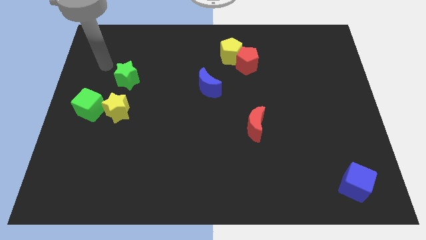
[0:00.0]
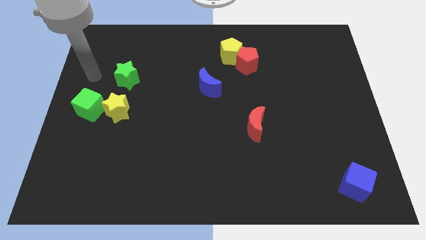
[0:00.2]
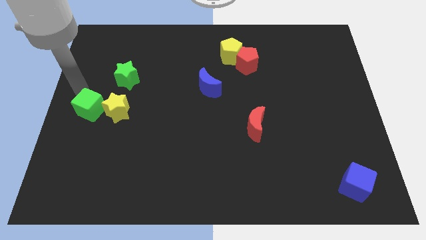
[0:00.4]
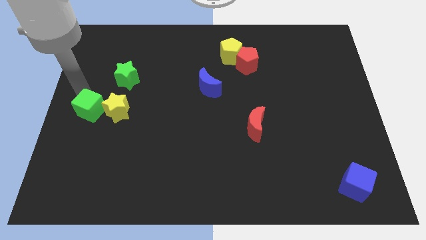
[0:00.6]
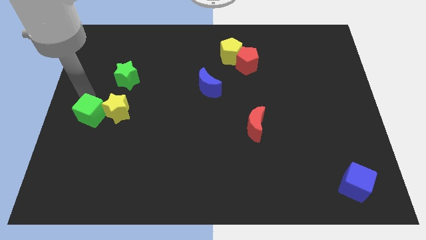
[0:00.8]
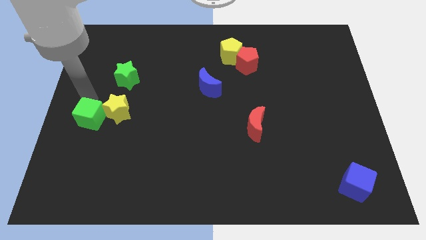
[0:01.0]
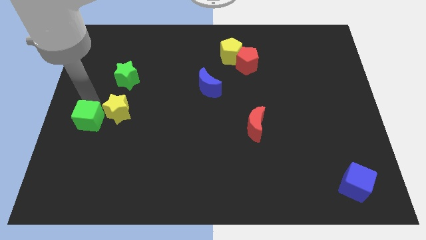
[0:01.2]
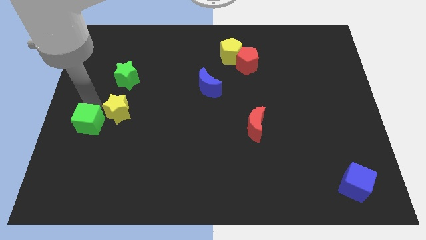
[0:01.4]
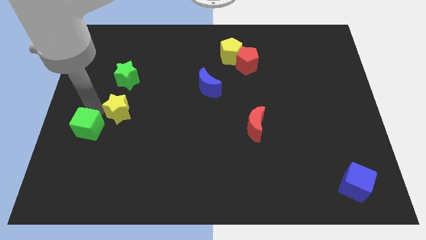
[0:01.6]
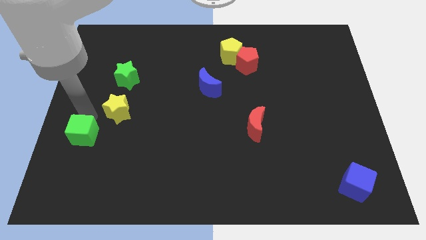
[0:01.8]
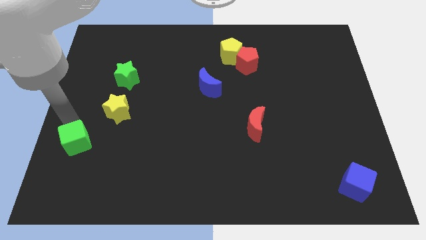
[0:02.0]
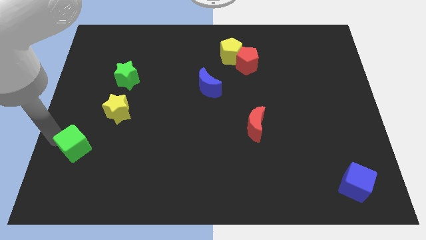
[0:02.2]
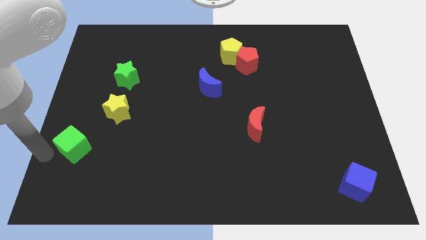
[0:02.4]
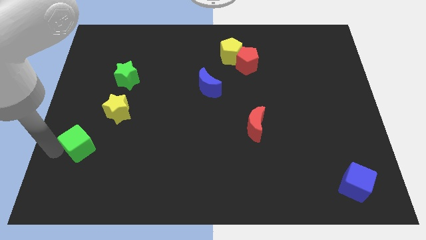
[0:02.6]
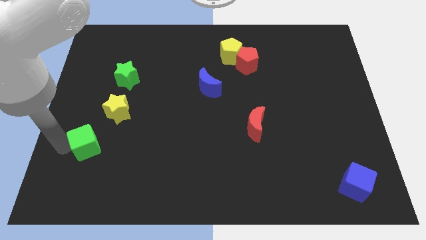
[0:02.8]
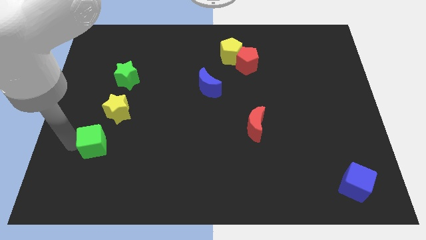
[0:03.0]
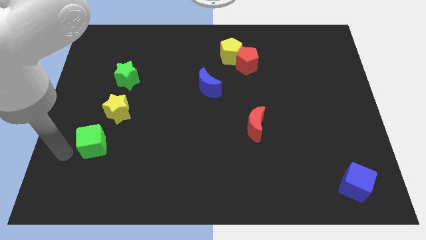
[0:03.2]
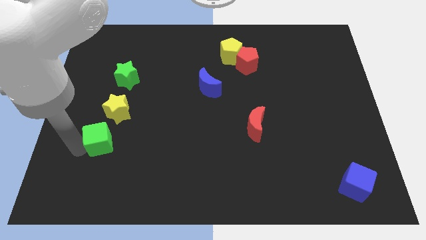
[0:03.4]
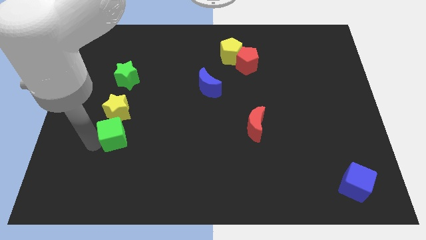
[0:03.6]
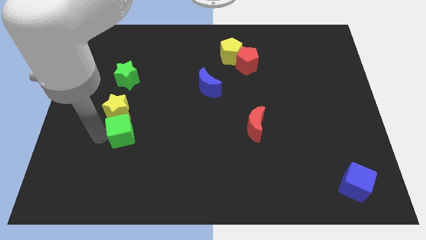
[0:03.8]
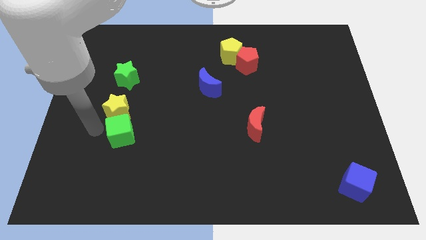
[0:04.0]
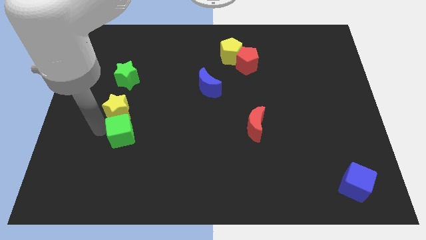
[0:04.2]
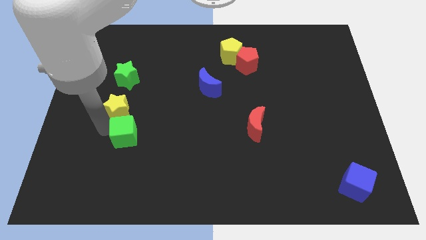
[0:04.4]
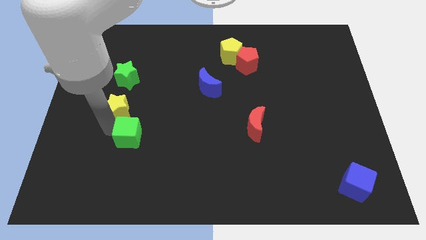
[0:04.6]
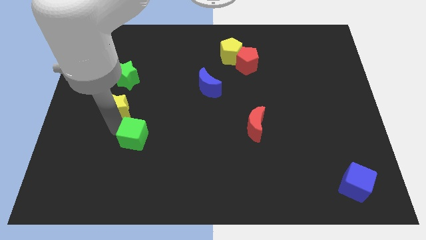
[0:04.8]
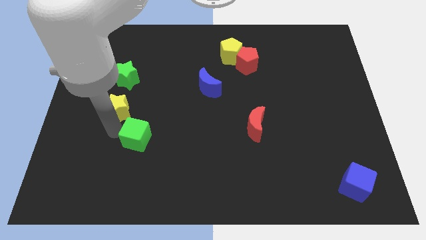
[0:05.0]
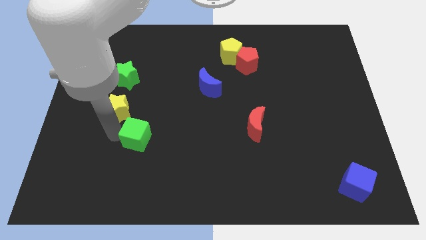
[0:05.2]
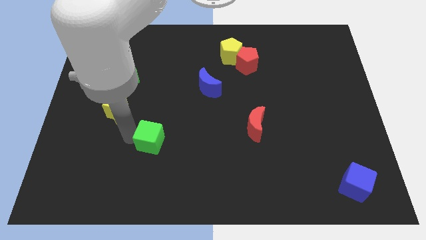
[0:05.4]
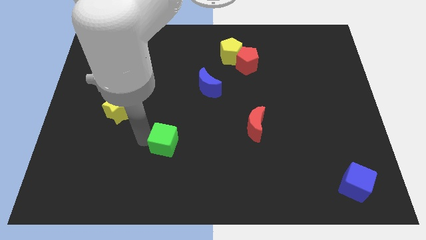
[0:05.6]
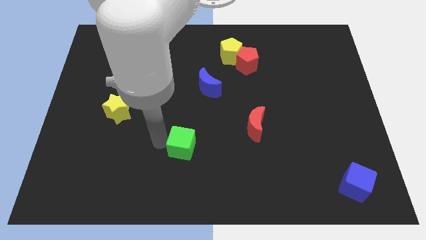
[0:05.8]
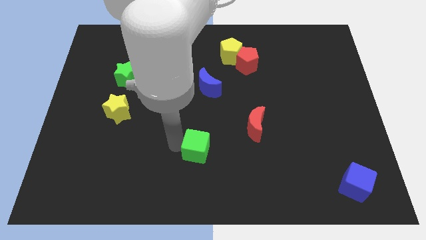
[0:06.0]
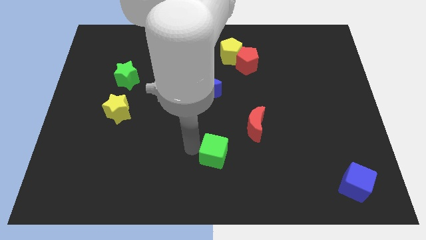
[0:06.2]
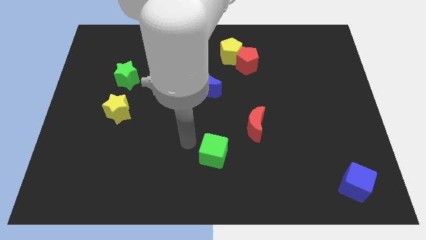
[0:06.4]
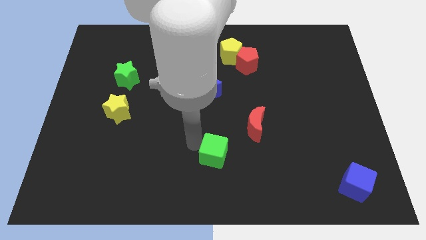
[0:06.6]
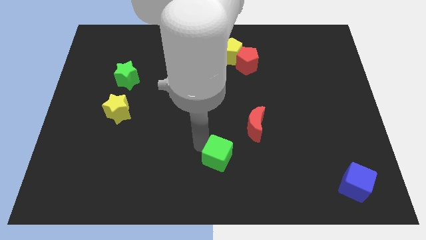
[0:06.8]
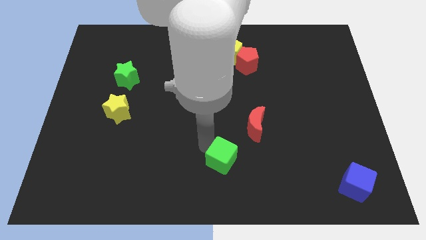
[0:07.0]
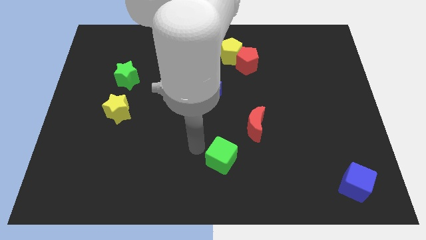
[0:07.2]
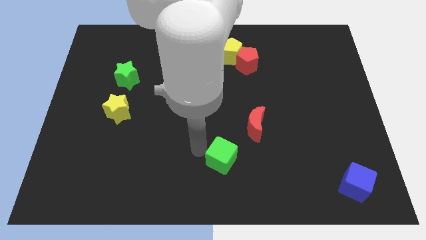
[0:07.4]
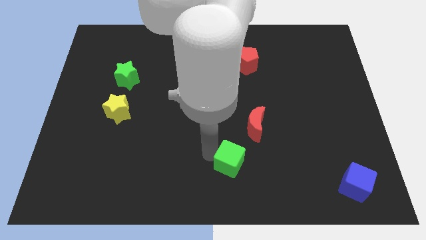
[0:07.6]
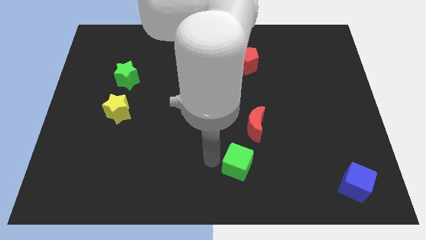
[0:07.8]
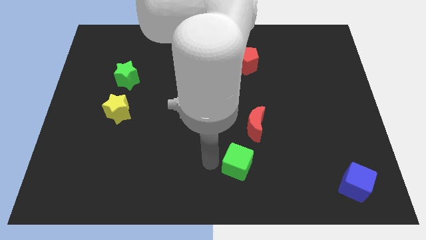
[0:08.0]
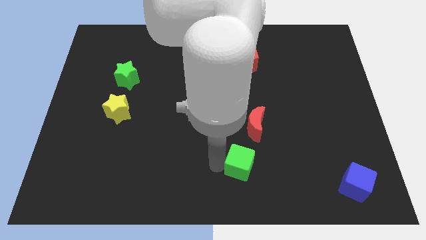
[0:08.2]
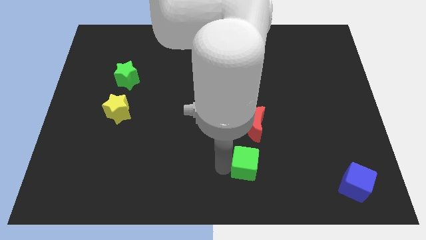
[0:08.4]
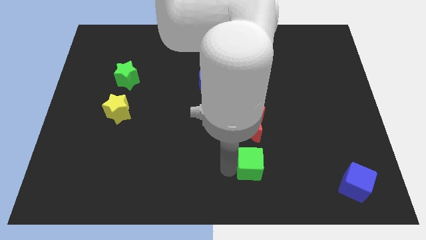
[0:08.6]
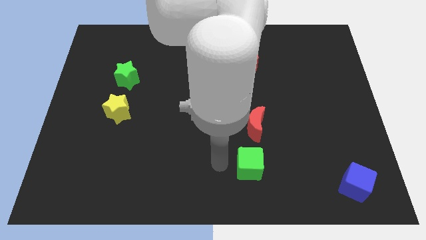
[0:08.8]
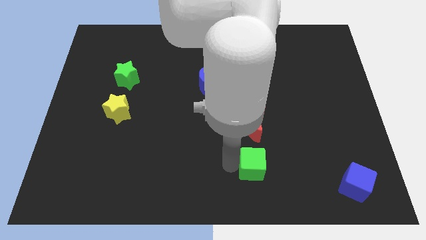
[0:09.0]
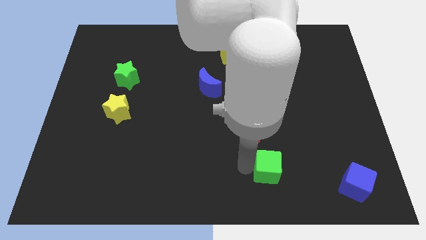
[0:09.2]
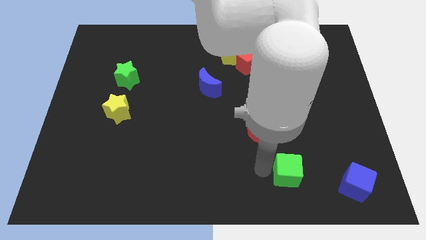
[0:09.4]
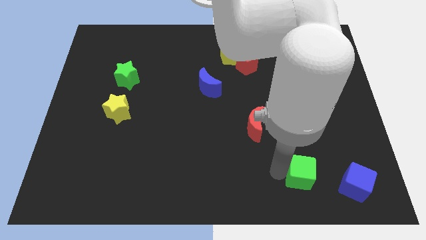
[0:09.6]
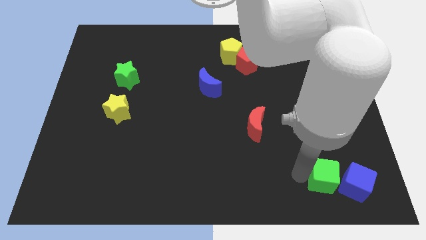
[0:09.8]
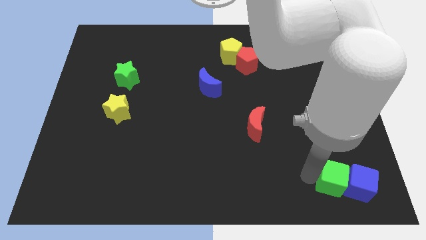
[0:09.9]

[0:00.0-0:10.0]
move the green cube close to the blue cube

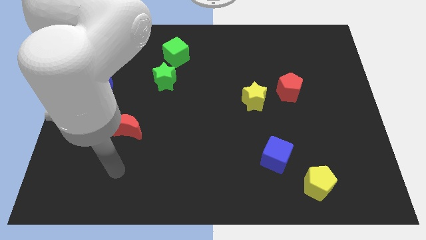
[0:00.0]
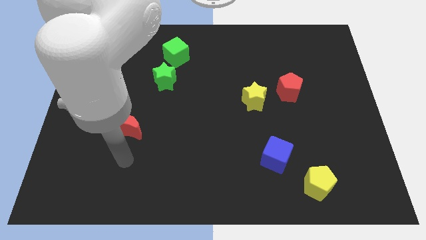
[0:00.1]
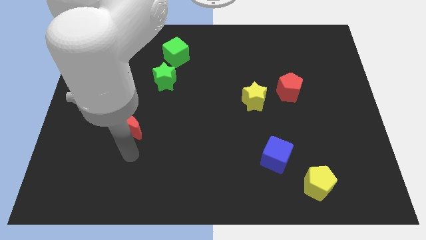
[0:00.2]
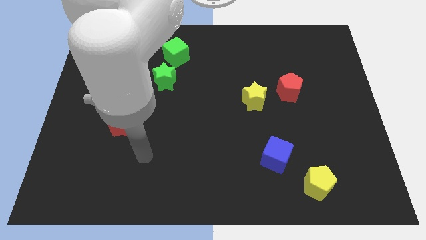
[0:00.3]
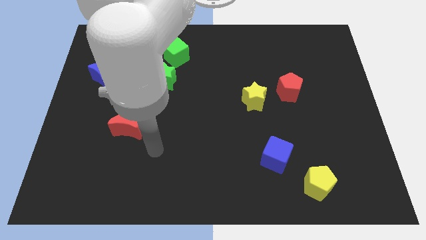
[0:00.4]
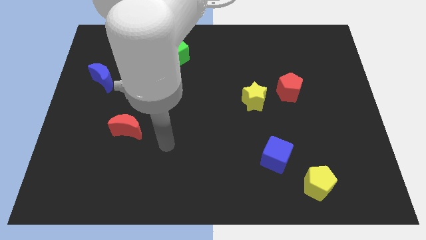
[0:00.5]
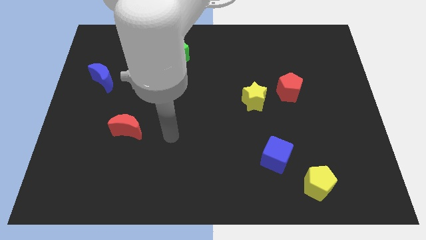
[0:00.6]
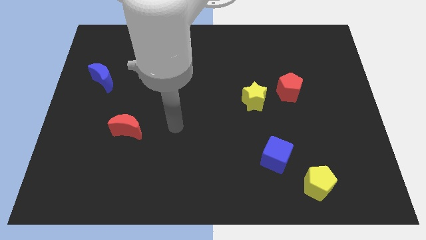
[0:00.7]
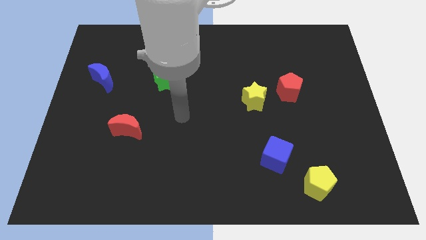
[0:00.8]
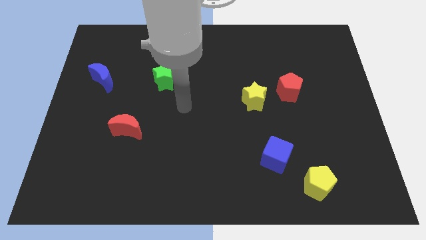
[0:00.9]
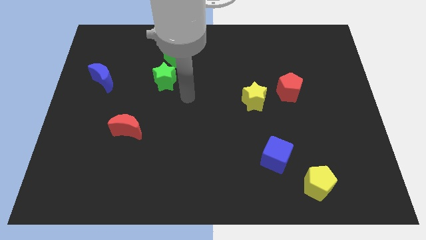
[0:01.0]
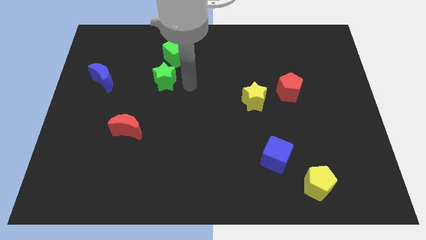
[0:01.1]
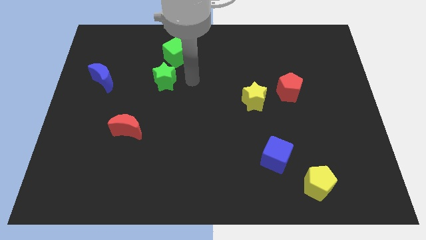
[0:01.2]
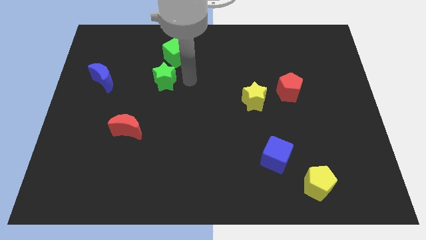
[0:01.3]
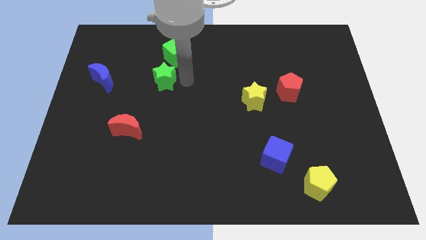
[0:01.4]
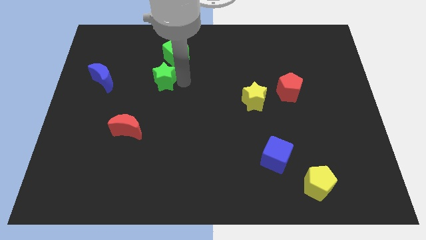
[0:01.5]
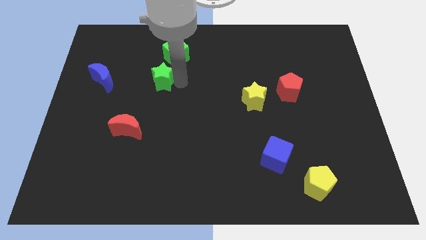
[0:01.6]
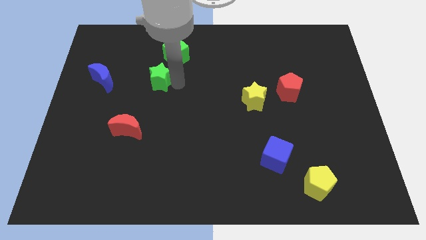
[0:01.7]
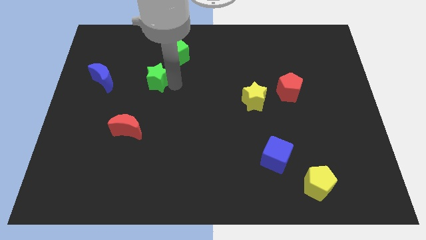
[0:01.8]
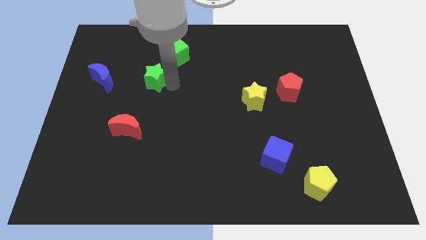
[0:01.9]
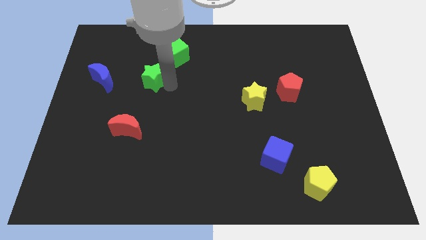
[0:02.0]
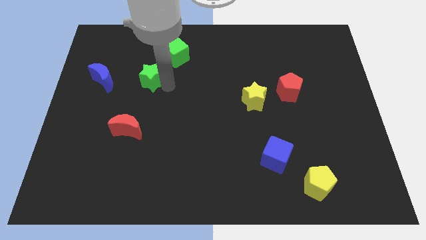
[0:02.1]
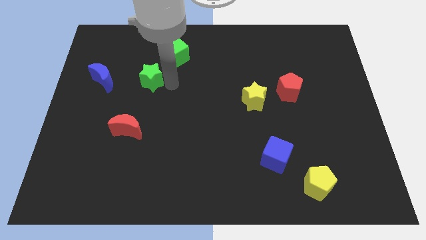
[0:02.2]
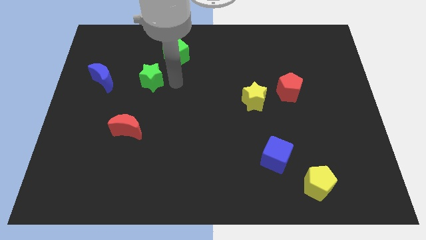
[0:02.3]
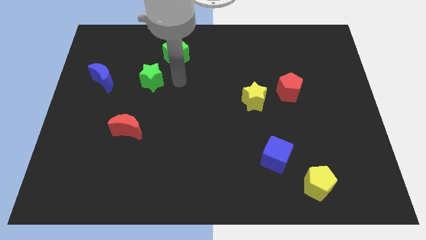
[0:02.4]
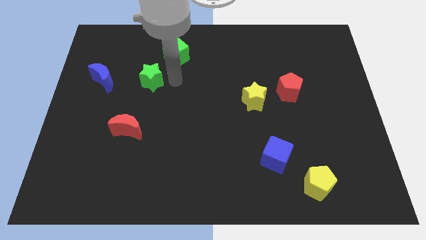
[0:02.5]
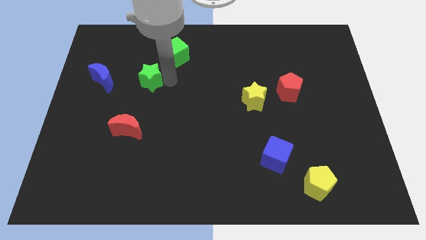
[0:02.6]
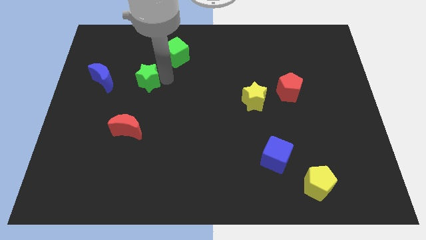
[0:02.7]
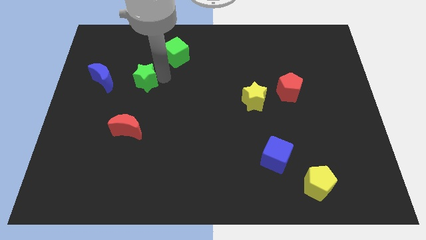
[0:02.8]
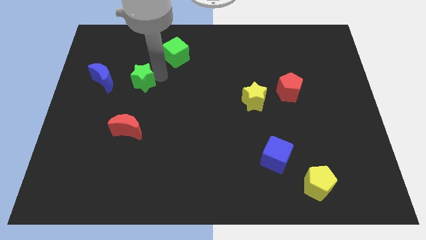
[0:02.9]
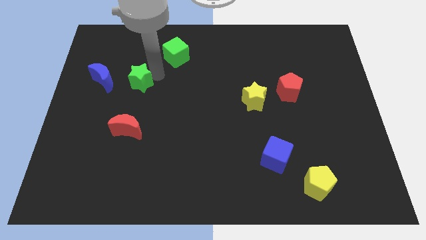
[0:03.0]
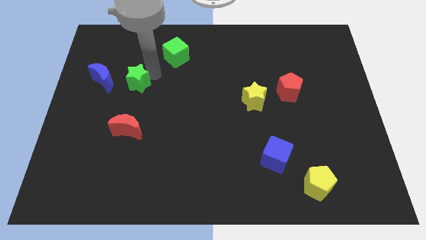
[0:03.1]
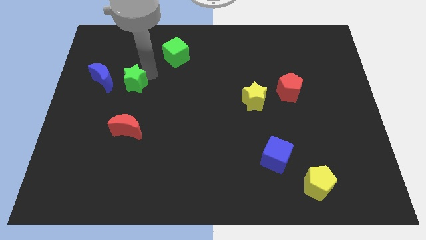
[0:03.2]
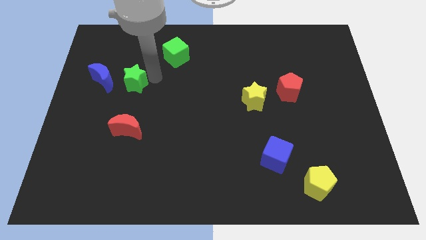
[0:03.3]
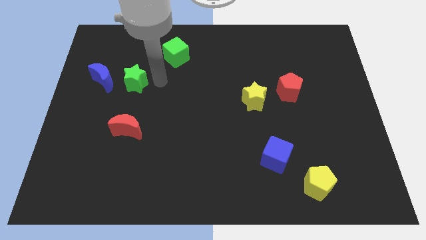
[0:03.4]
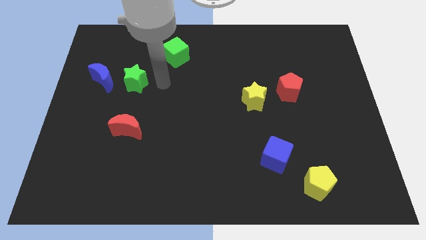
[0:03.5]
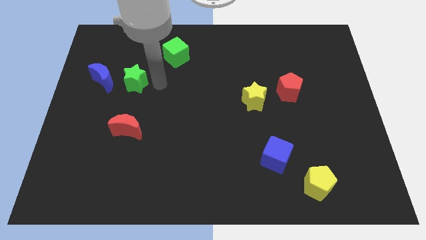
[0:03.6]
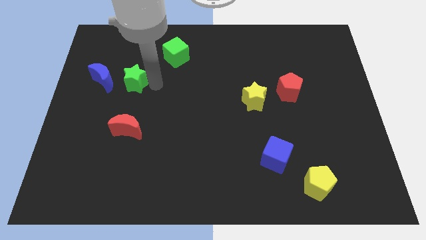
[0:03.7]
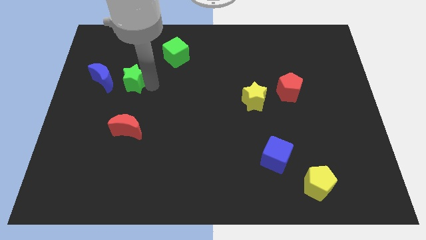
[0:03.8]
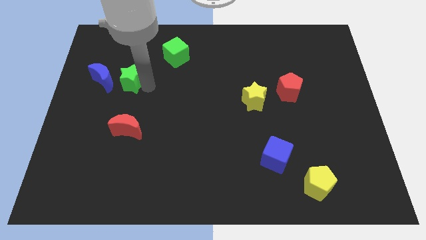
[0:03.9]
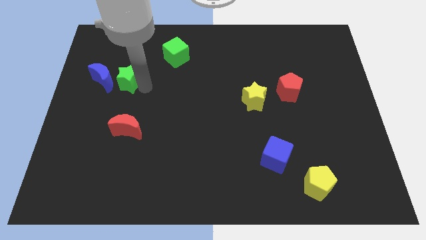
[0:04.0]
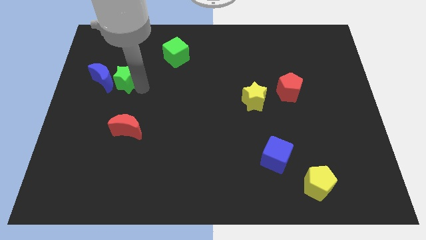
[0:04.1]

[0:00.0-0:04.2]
move the green star to the blue moon
